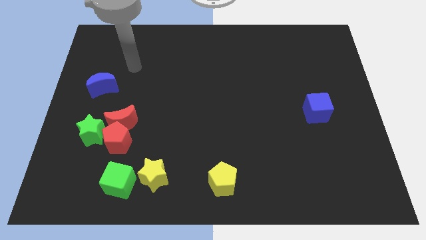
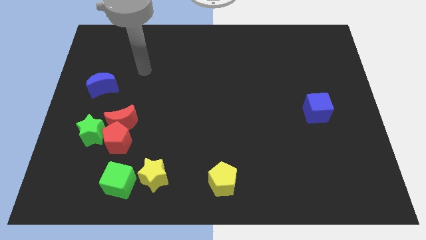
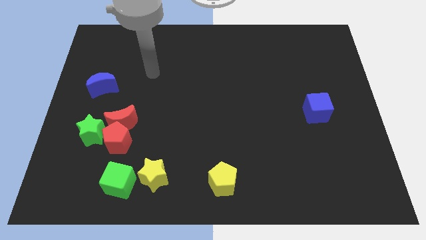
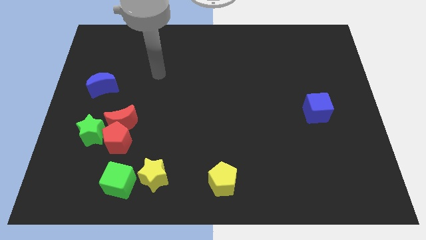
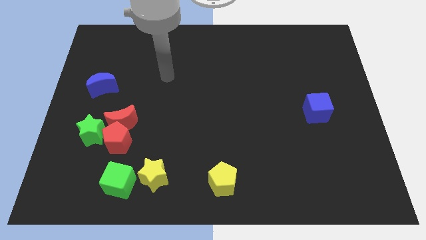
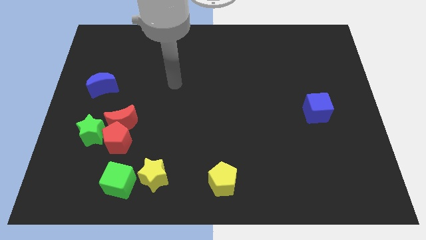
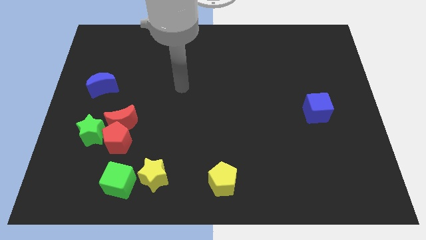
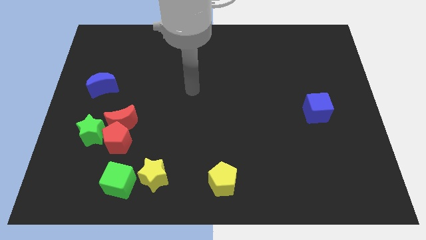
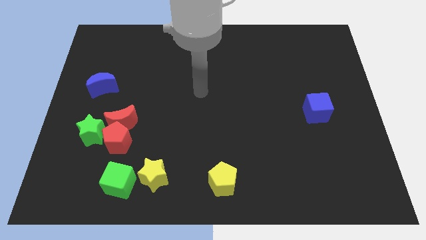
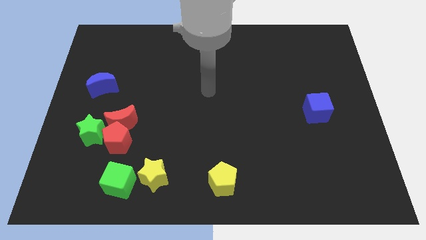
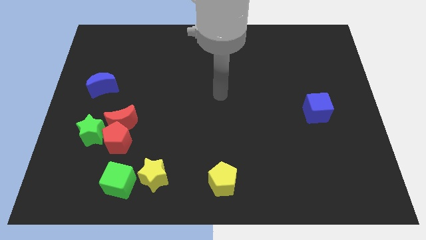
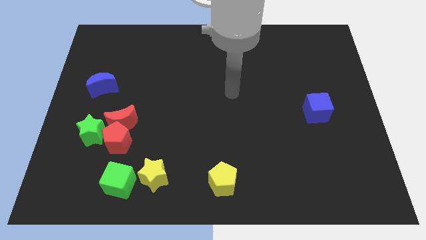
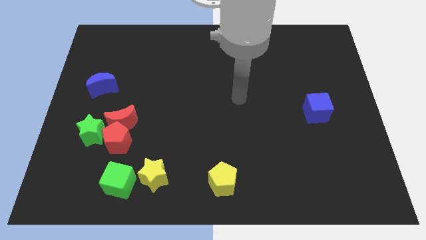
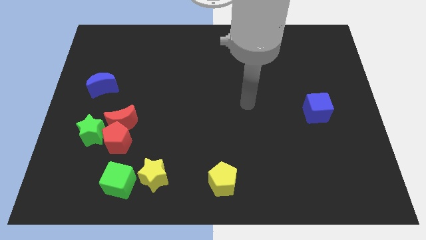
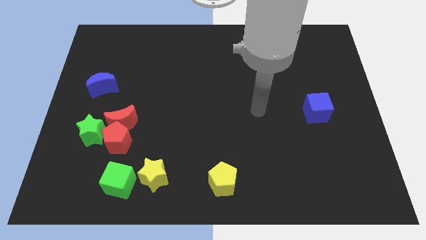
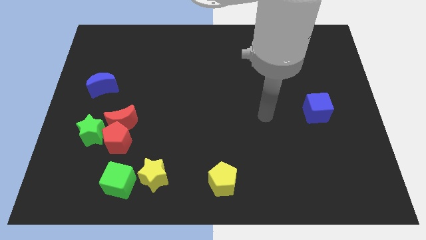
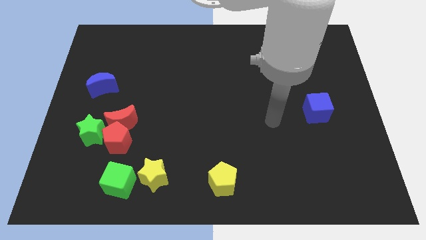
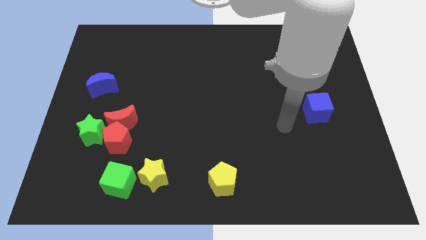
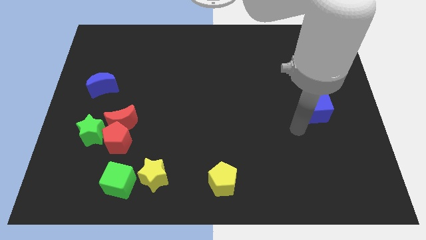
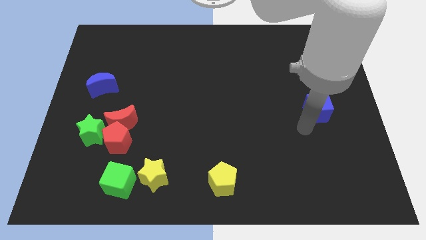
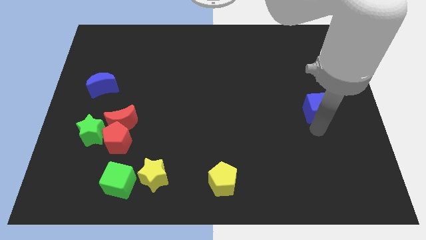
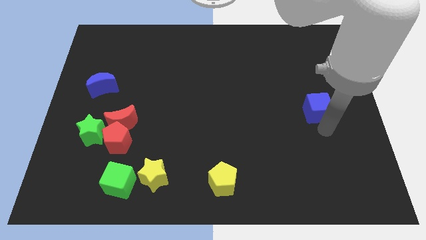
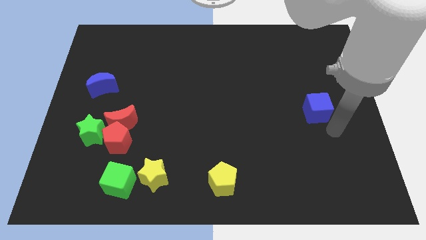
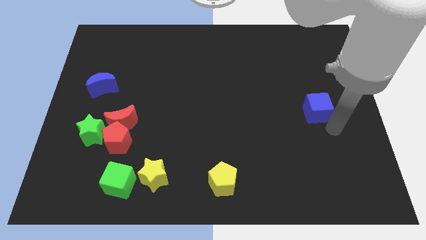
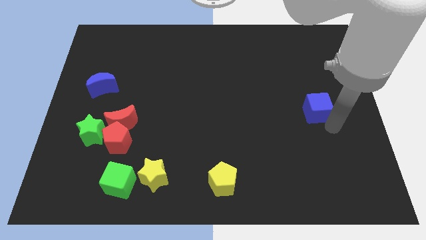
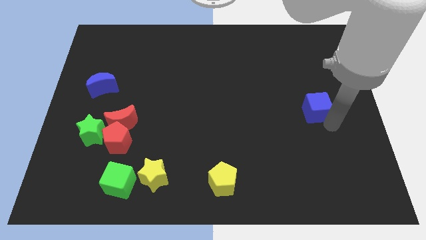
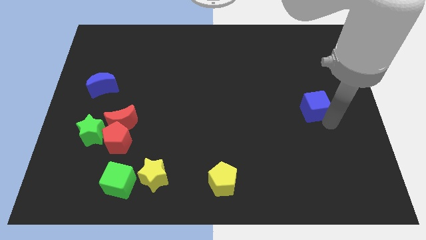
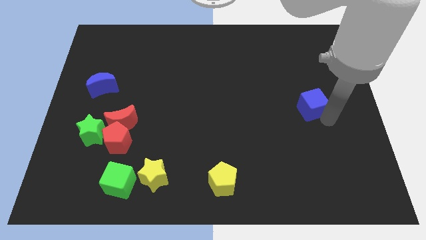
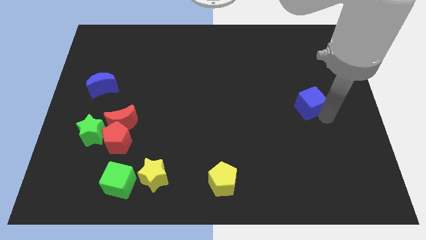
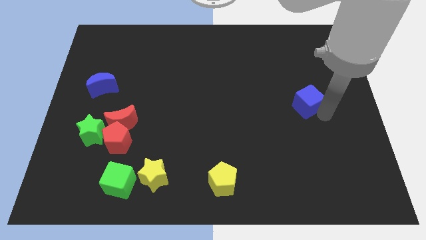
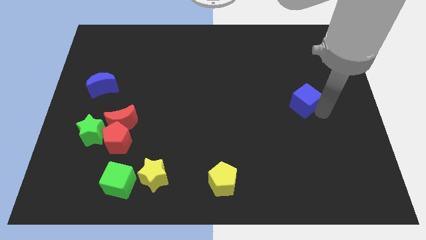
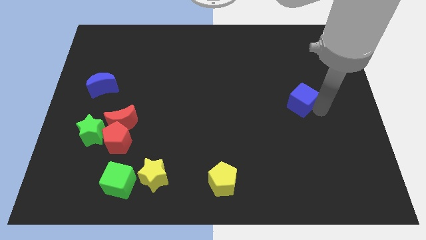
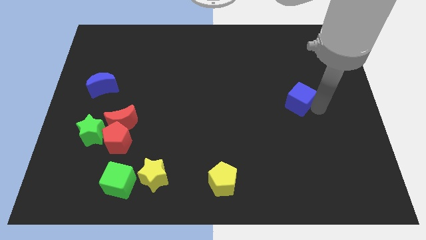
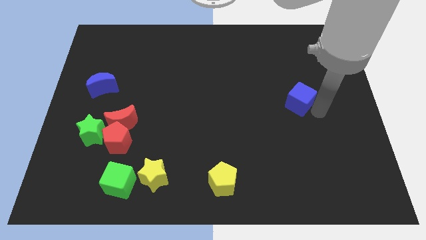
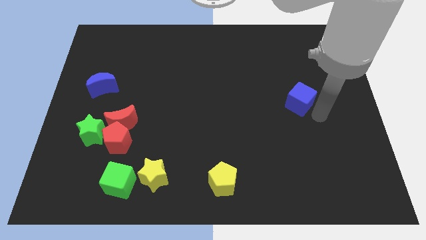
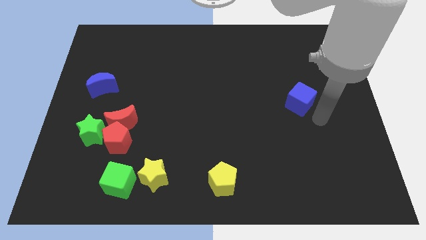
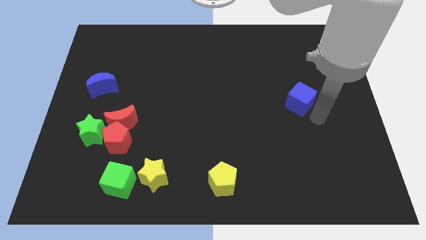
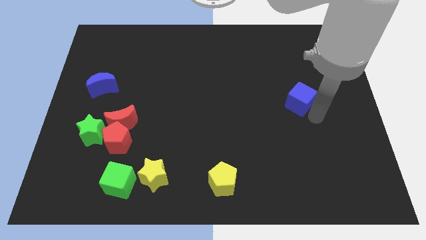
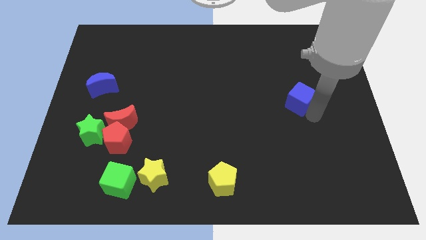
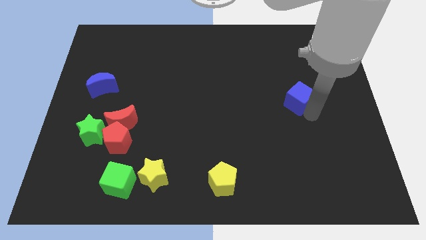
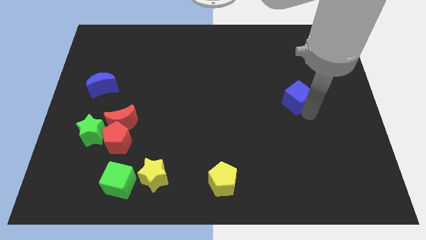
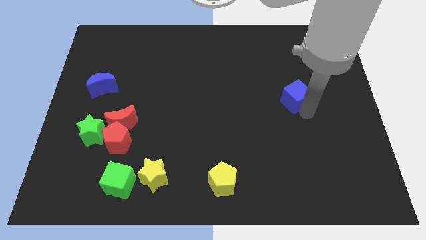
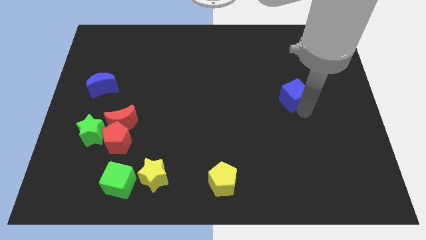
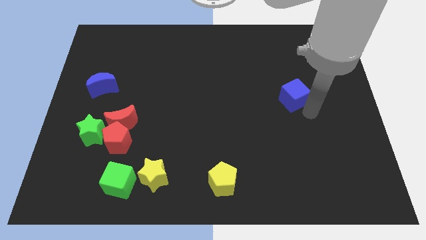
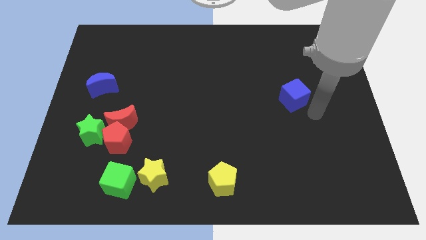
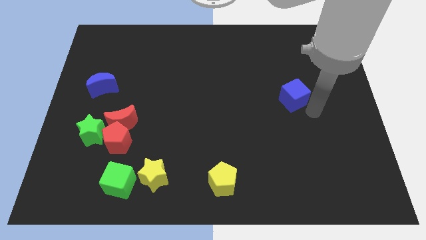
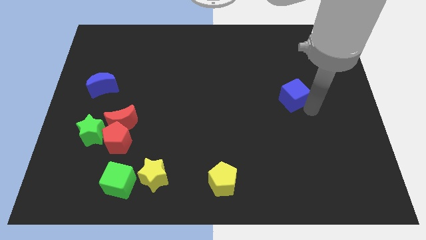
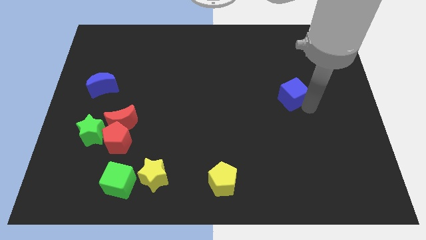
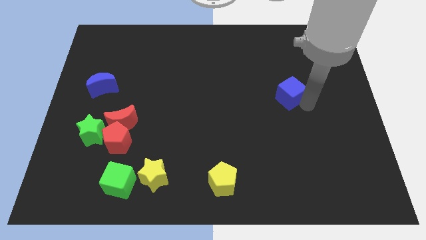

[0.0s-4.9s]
push the blue cube a little bit up and to the left

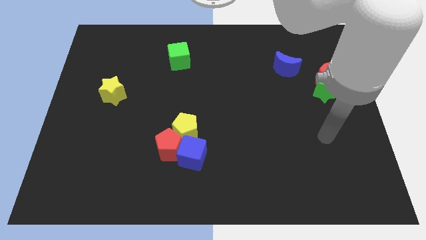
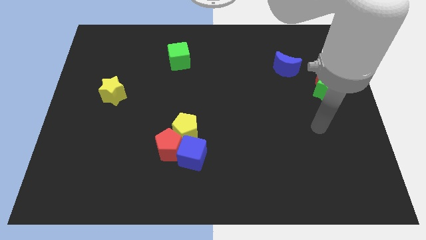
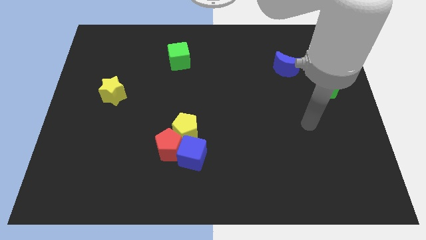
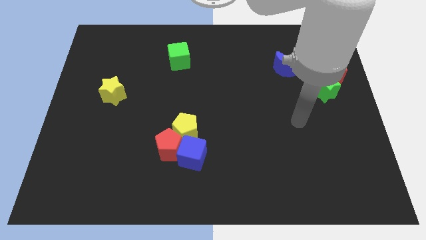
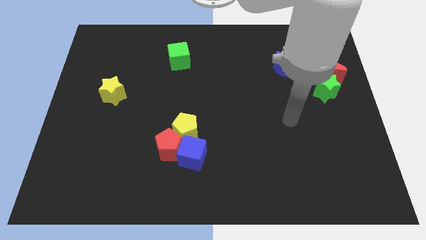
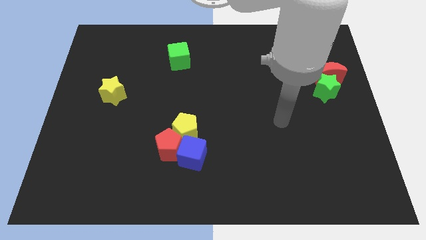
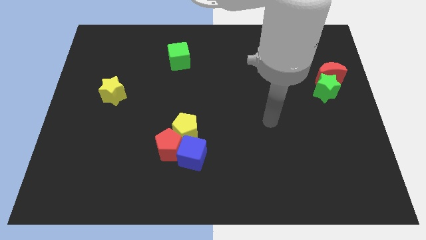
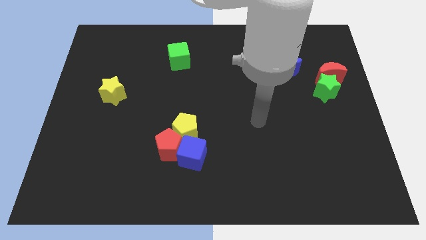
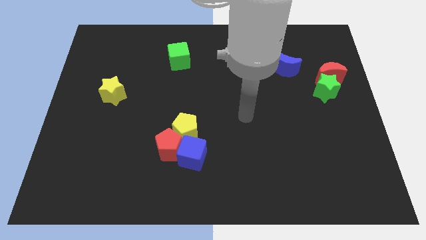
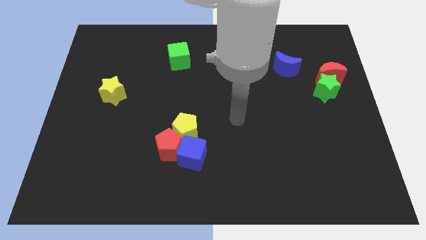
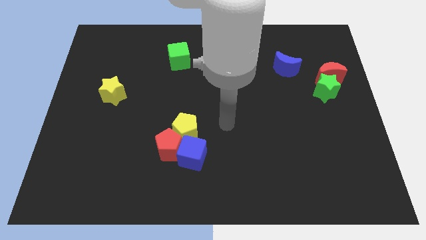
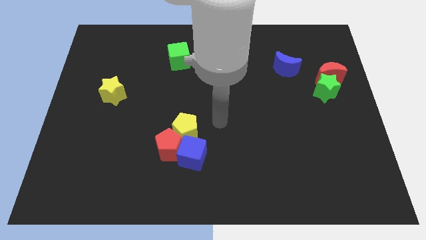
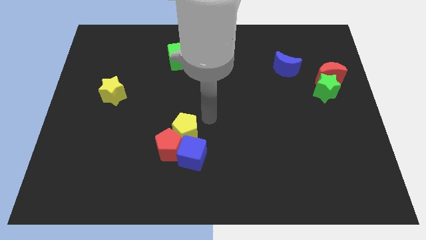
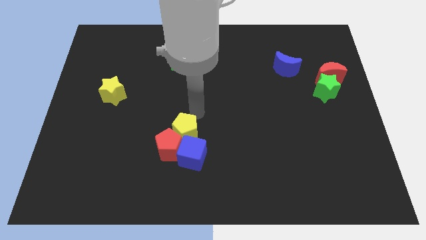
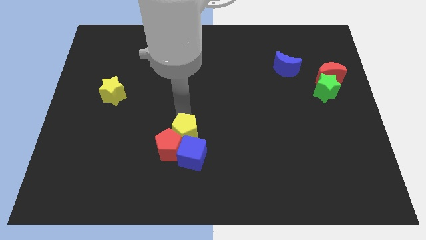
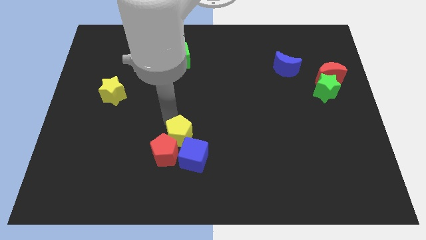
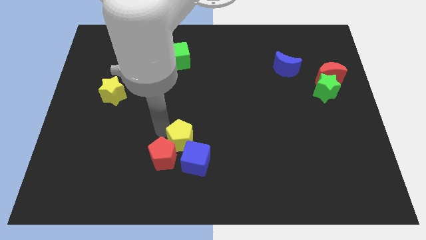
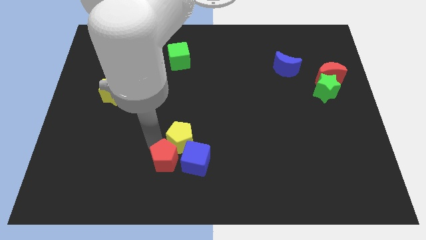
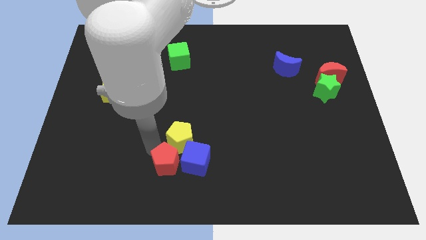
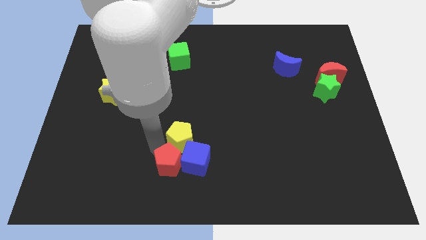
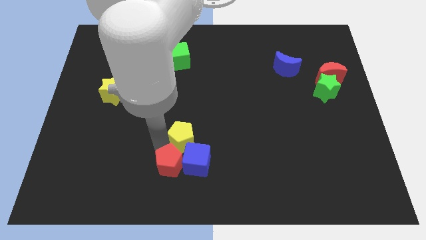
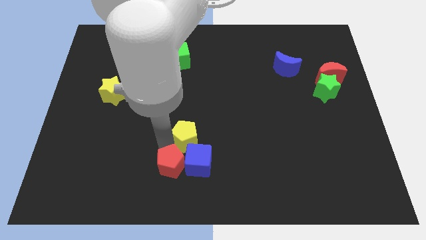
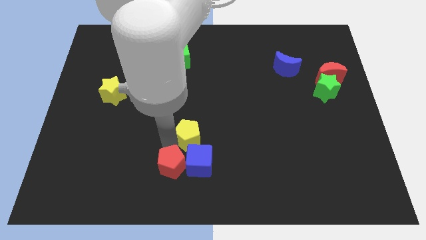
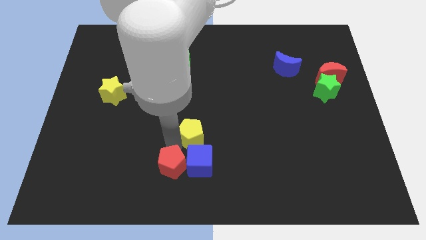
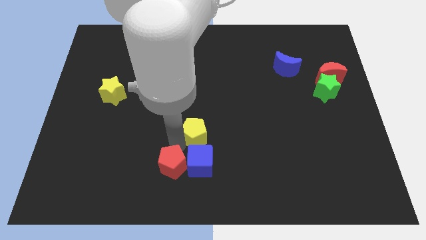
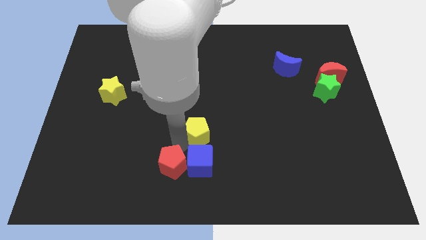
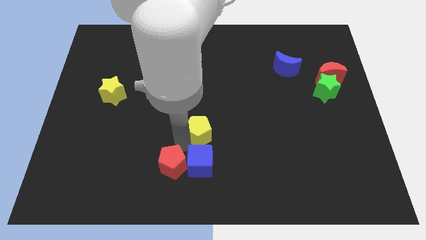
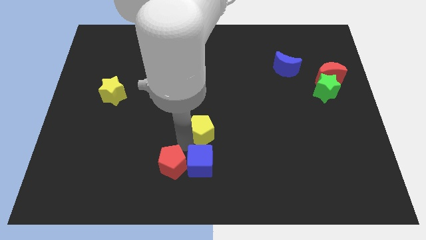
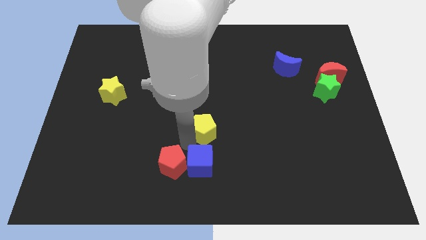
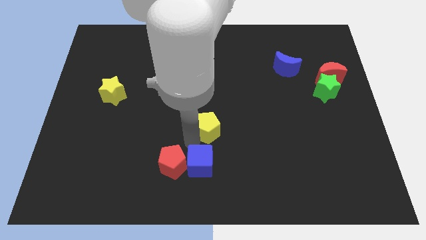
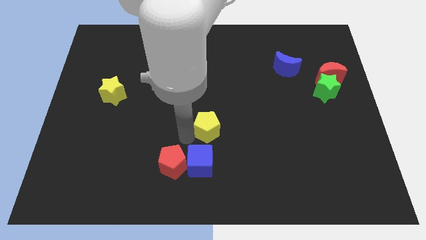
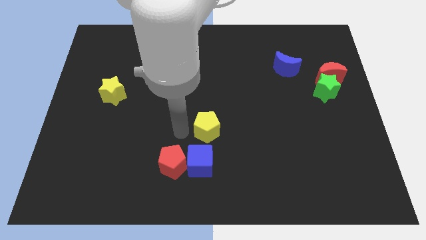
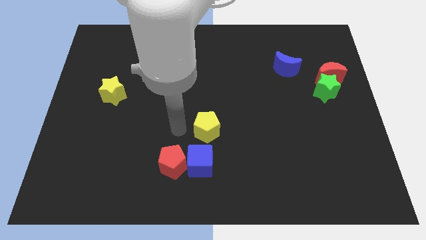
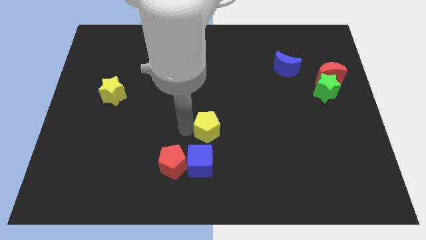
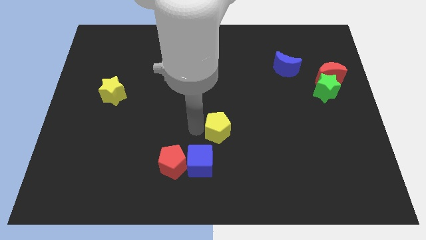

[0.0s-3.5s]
push the yellow pentagon a bit to the right
